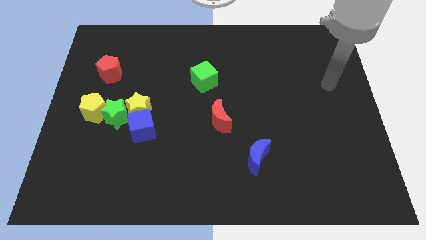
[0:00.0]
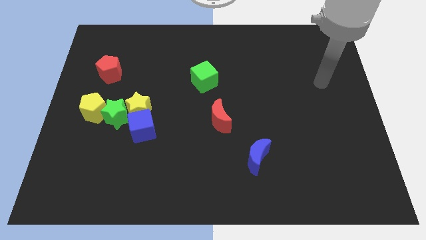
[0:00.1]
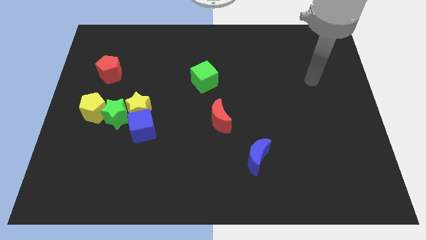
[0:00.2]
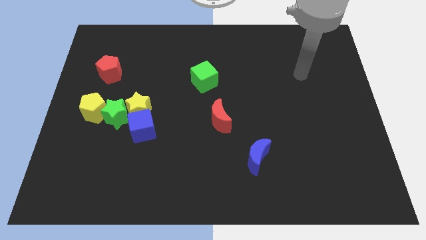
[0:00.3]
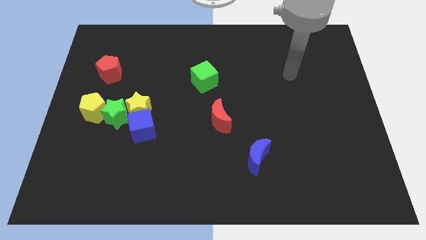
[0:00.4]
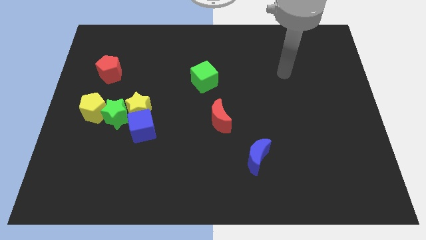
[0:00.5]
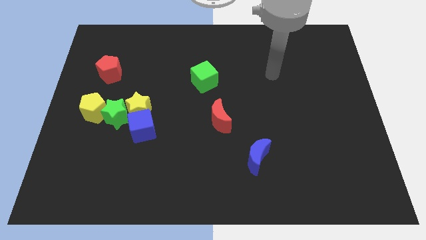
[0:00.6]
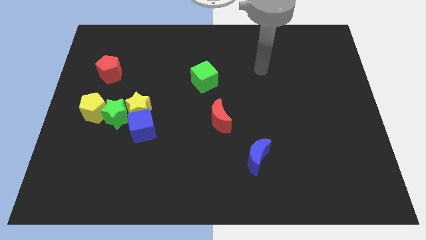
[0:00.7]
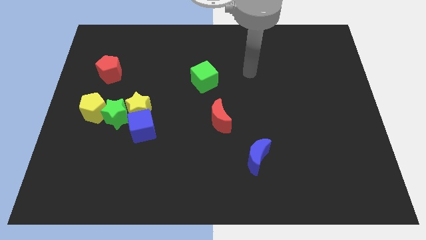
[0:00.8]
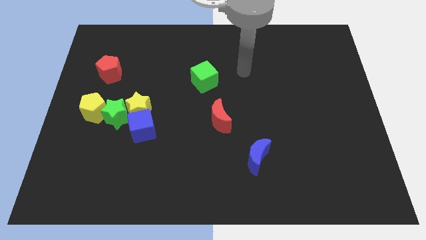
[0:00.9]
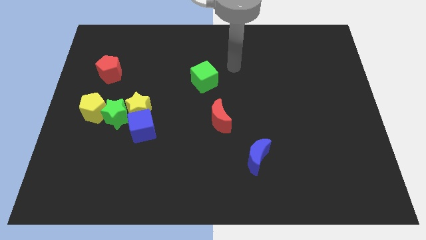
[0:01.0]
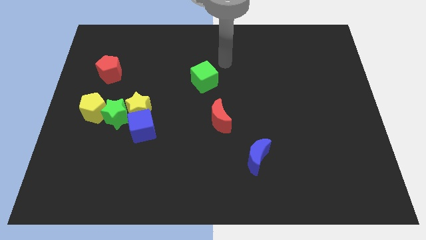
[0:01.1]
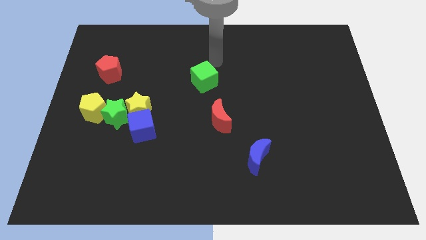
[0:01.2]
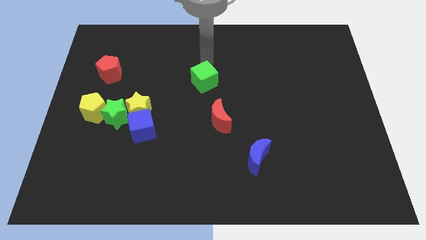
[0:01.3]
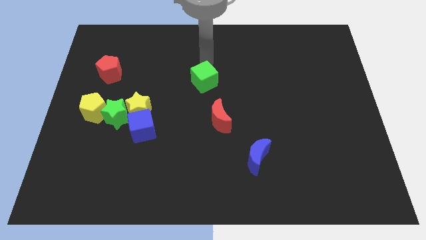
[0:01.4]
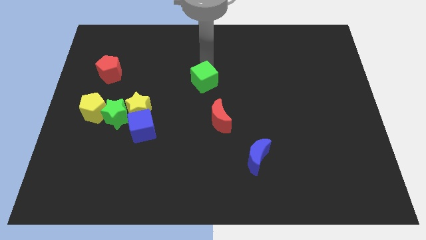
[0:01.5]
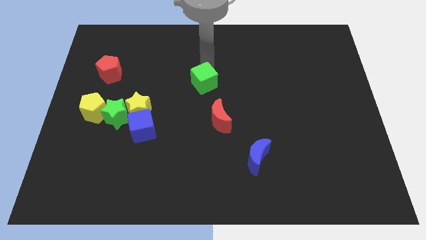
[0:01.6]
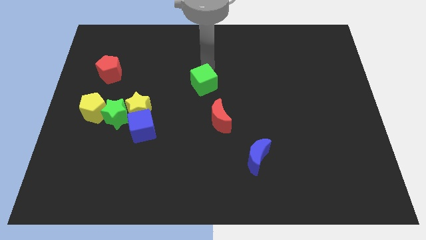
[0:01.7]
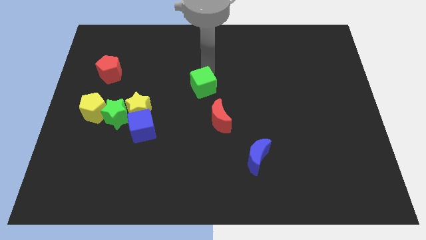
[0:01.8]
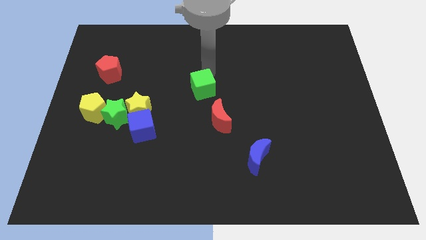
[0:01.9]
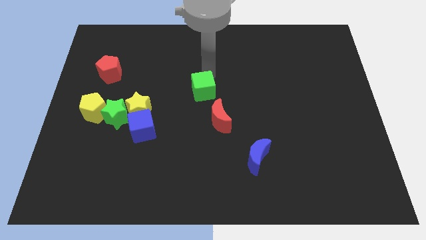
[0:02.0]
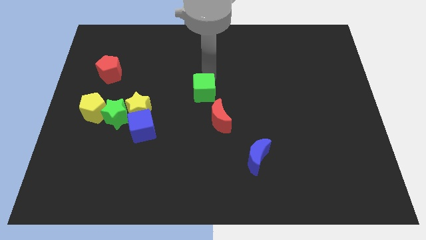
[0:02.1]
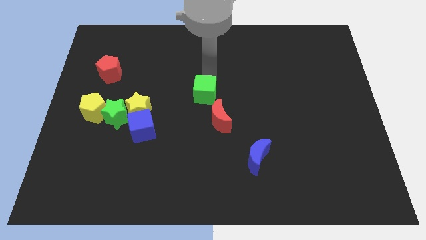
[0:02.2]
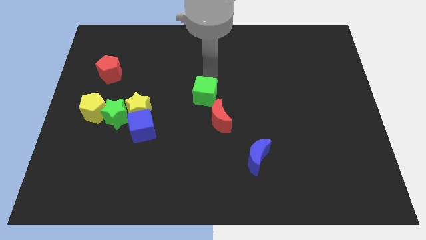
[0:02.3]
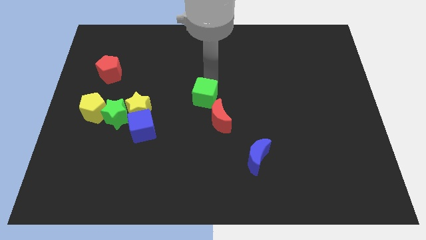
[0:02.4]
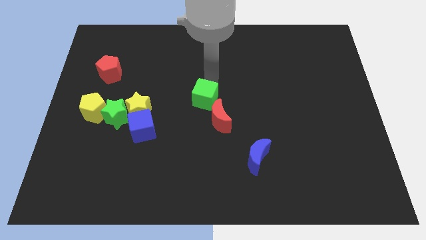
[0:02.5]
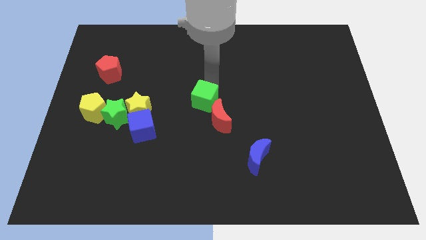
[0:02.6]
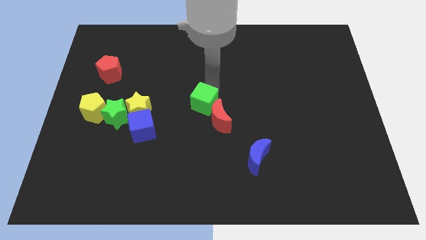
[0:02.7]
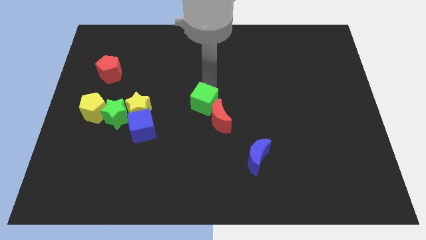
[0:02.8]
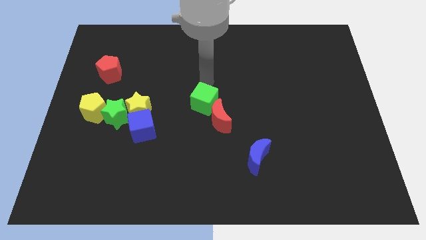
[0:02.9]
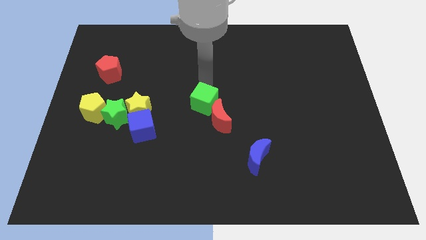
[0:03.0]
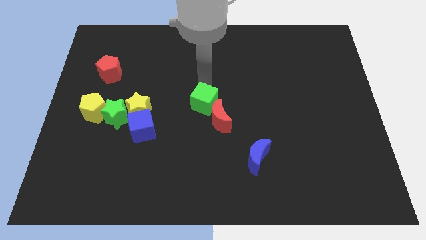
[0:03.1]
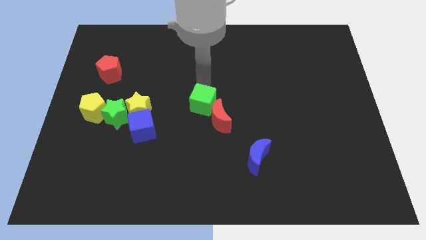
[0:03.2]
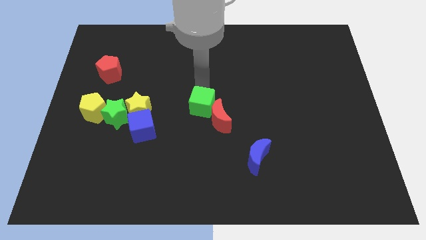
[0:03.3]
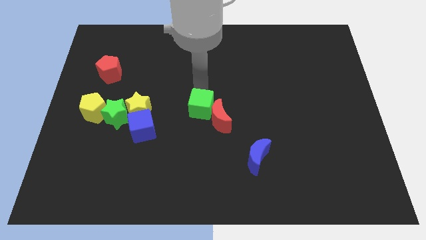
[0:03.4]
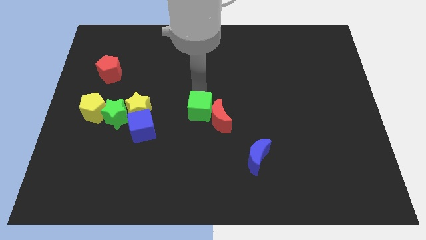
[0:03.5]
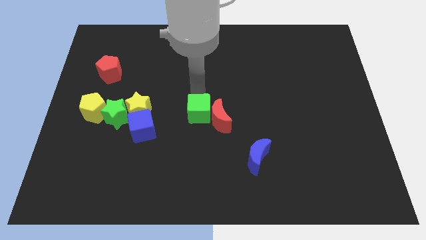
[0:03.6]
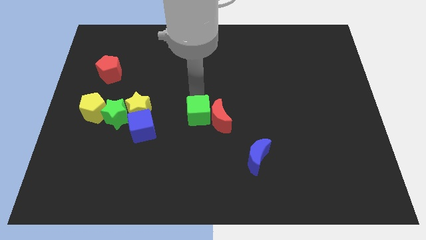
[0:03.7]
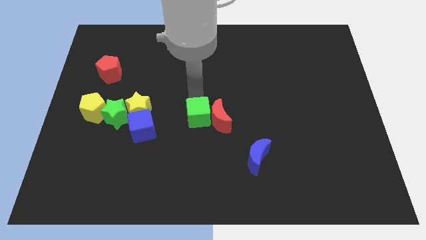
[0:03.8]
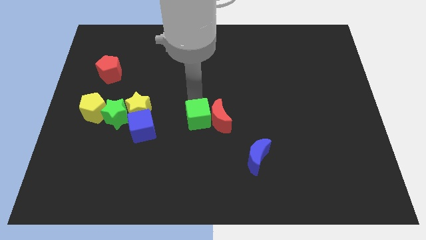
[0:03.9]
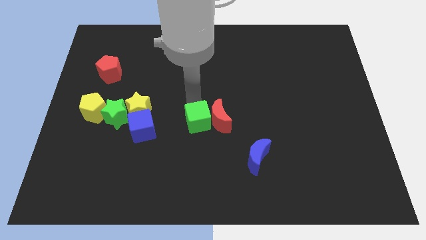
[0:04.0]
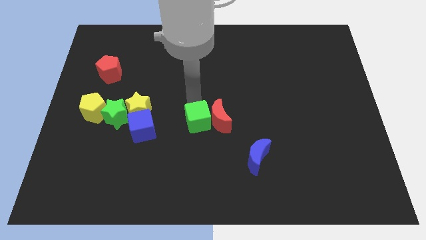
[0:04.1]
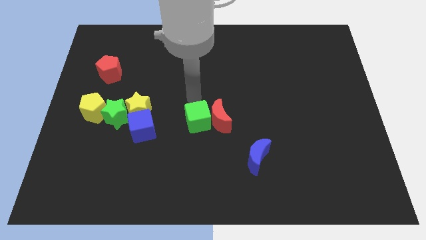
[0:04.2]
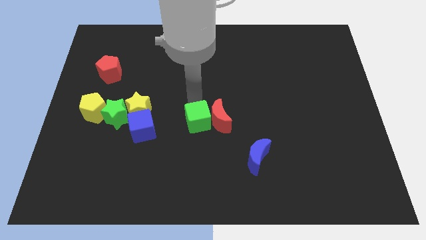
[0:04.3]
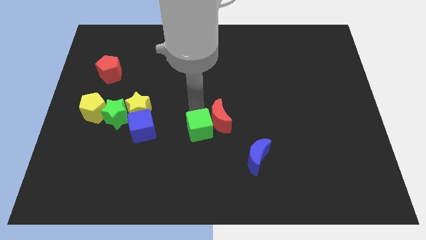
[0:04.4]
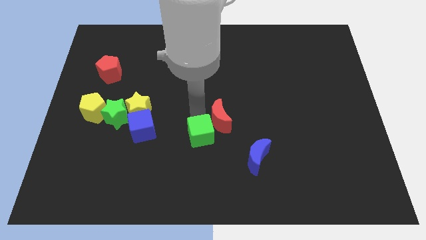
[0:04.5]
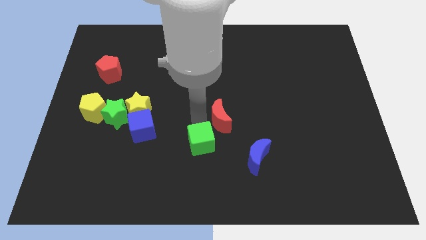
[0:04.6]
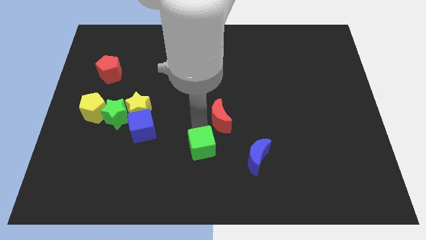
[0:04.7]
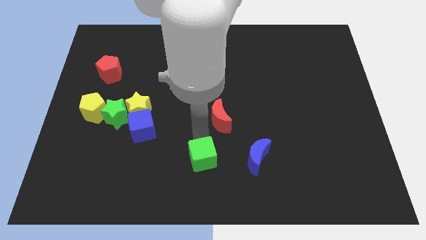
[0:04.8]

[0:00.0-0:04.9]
put the green cube to the bottom side

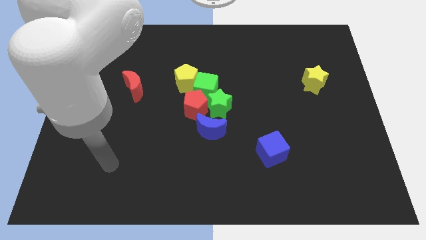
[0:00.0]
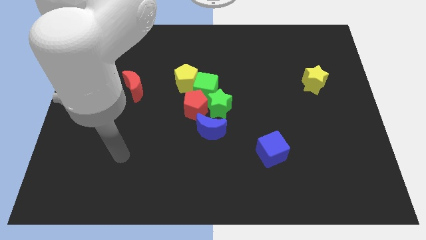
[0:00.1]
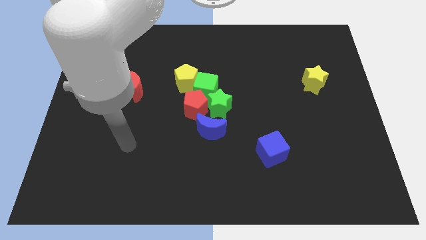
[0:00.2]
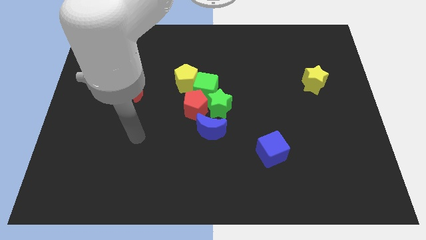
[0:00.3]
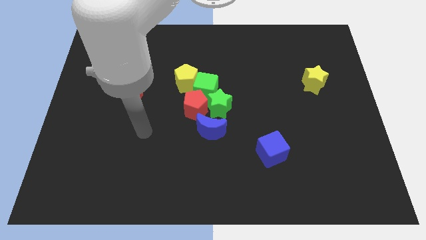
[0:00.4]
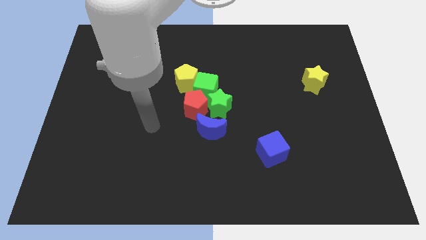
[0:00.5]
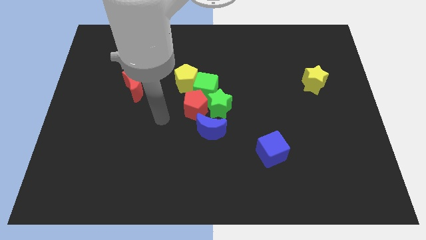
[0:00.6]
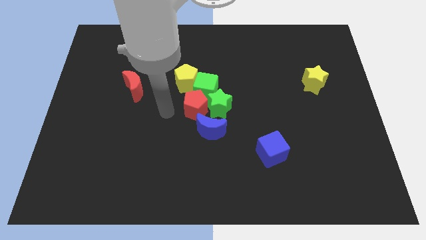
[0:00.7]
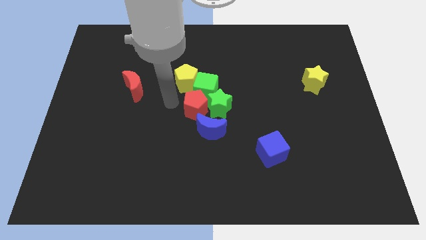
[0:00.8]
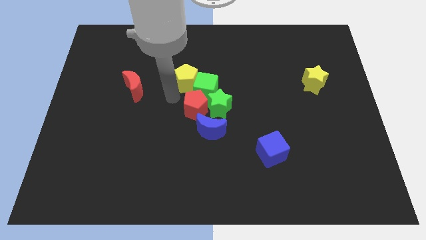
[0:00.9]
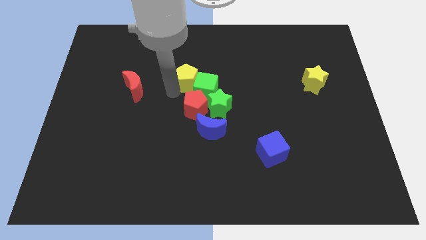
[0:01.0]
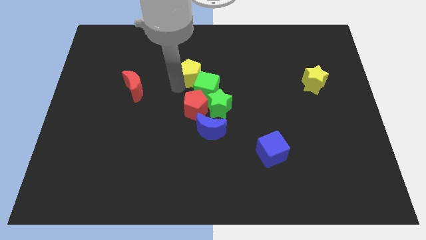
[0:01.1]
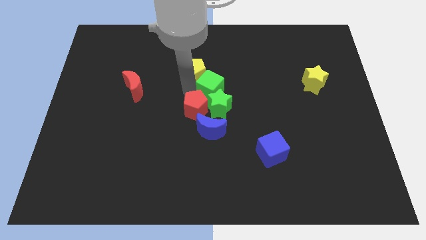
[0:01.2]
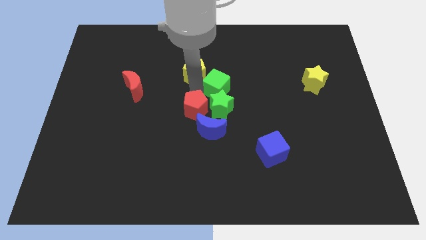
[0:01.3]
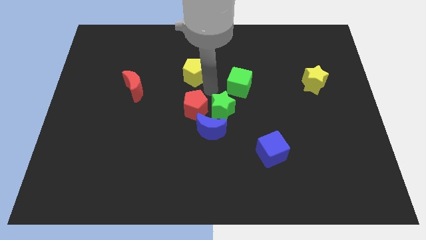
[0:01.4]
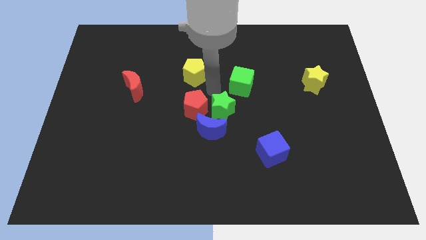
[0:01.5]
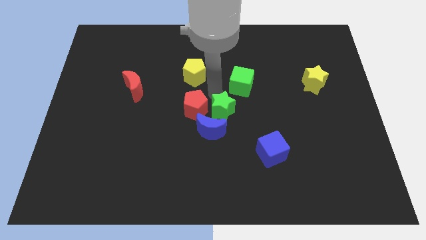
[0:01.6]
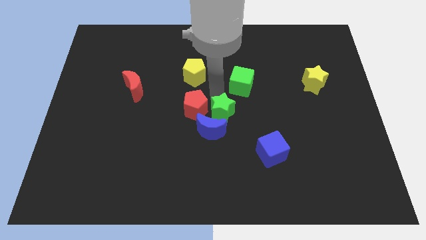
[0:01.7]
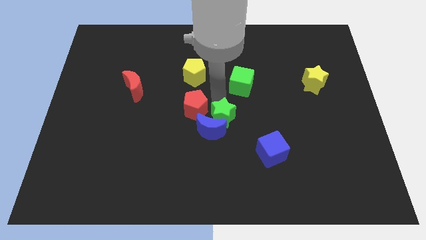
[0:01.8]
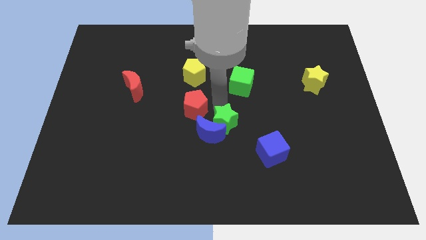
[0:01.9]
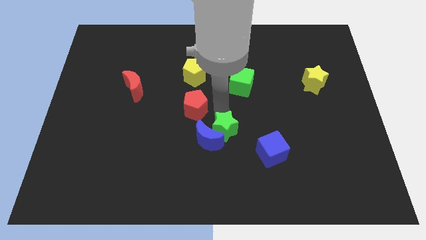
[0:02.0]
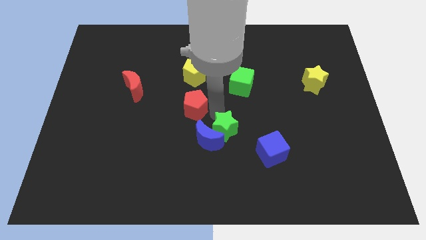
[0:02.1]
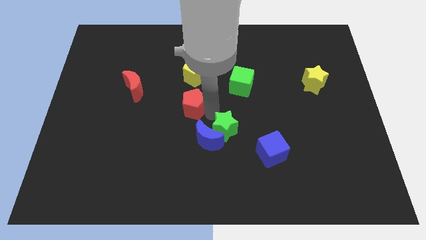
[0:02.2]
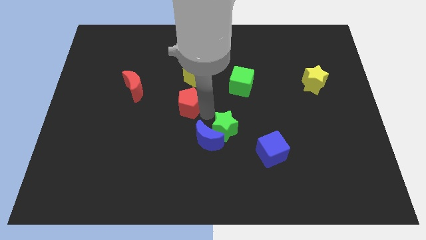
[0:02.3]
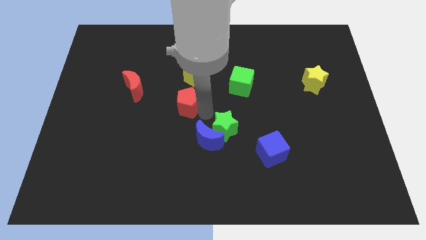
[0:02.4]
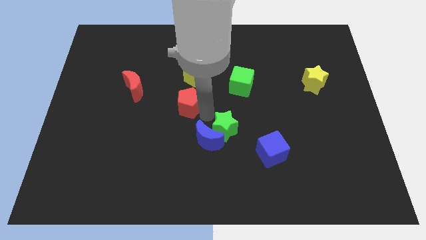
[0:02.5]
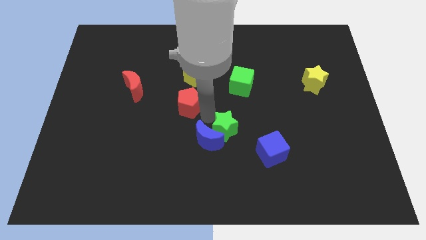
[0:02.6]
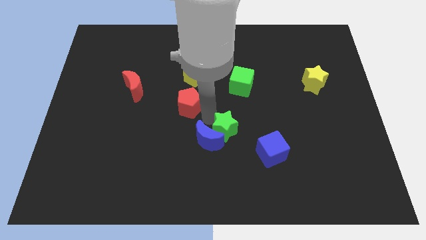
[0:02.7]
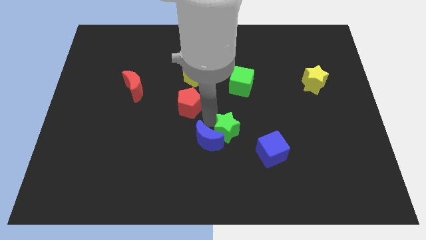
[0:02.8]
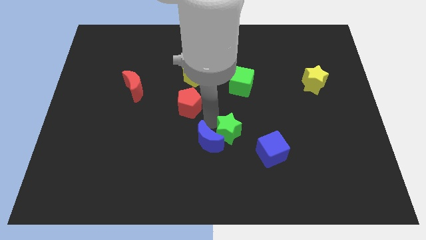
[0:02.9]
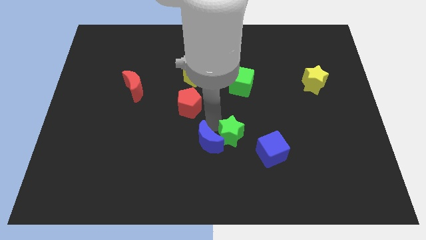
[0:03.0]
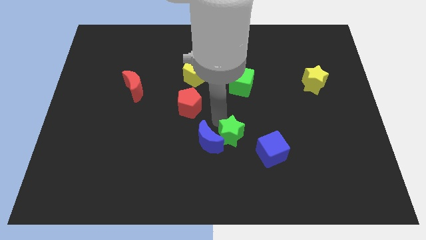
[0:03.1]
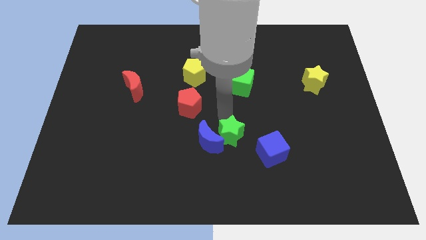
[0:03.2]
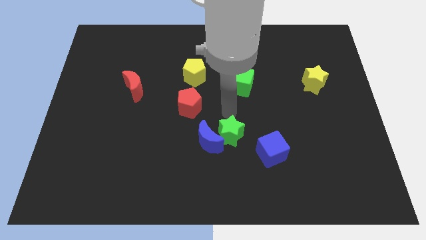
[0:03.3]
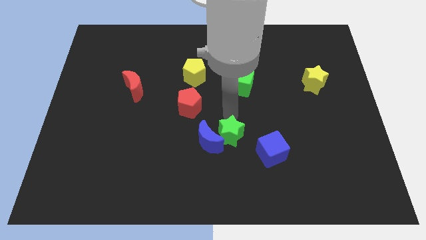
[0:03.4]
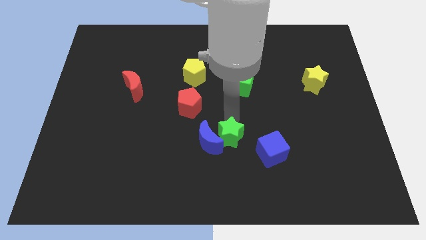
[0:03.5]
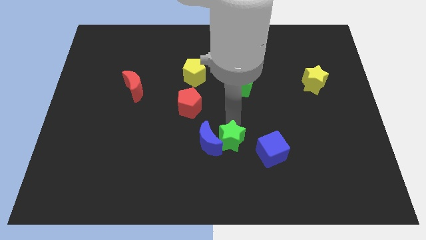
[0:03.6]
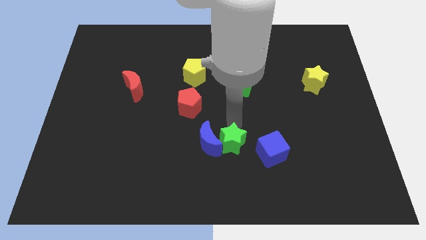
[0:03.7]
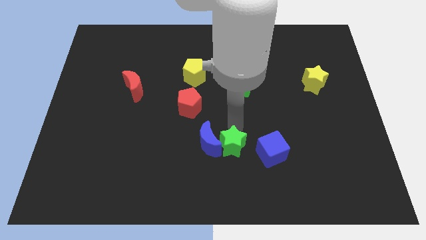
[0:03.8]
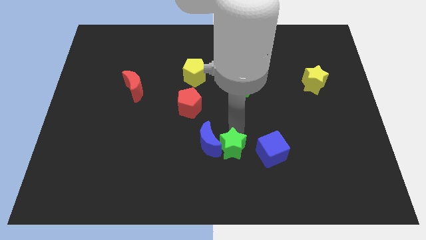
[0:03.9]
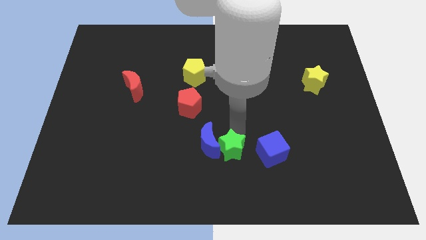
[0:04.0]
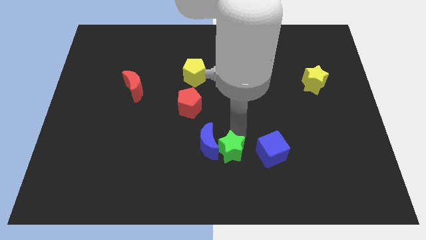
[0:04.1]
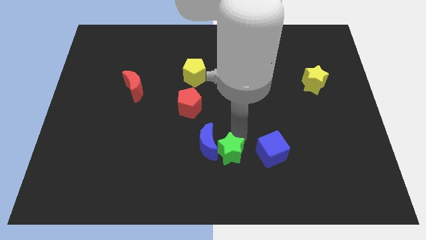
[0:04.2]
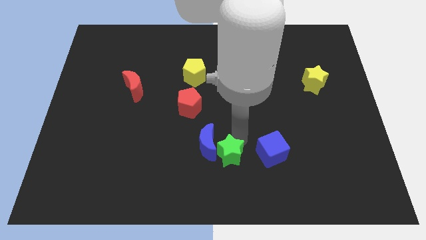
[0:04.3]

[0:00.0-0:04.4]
push the green star to the bottom
